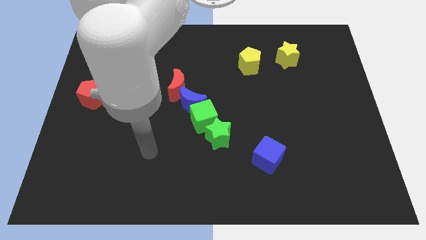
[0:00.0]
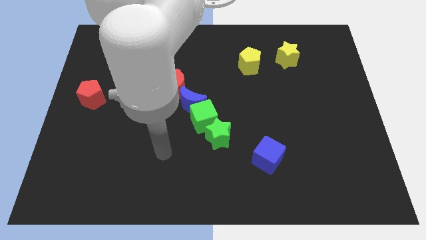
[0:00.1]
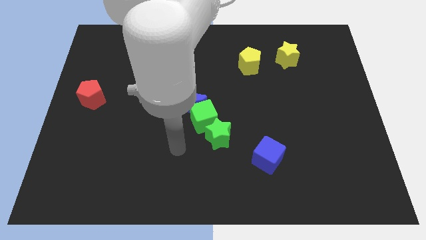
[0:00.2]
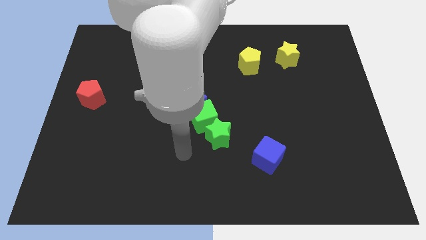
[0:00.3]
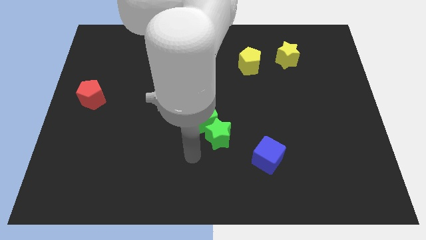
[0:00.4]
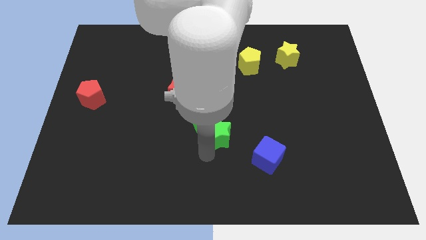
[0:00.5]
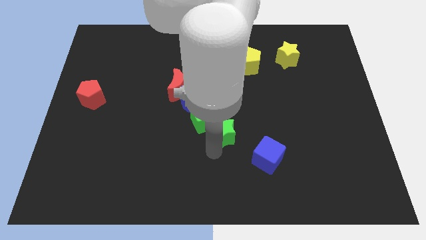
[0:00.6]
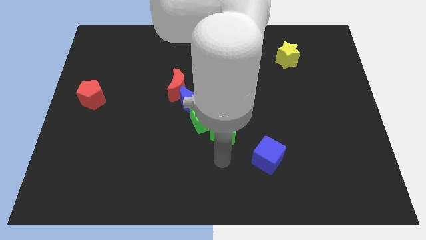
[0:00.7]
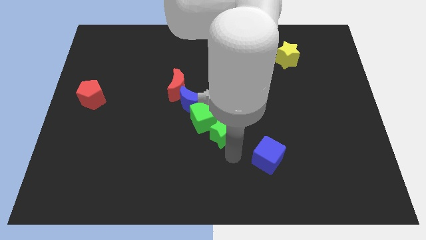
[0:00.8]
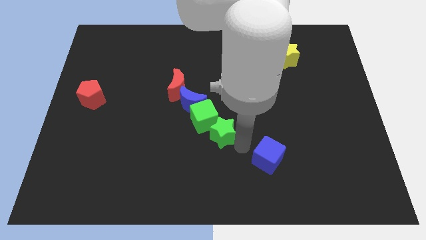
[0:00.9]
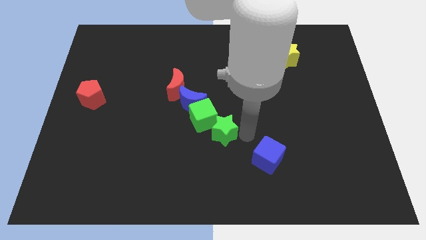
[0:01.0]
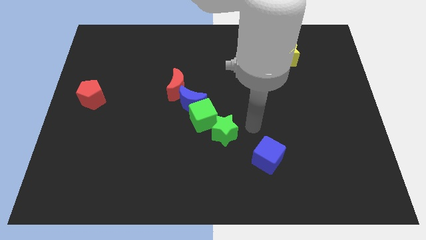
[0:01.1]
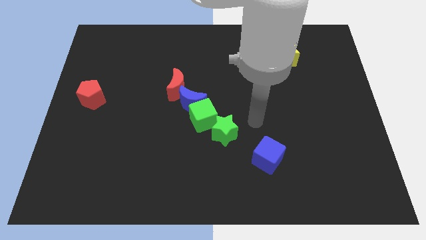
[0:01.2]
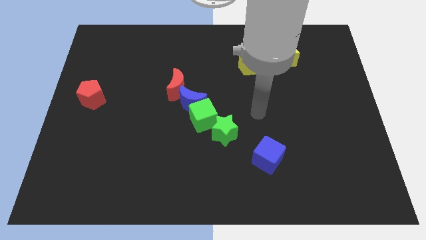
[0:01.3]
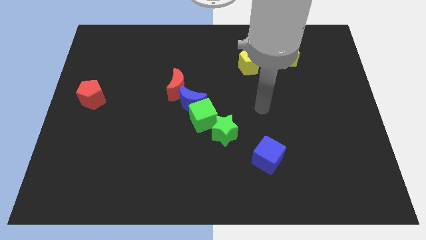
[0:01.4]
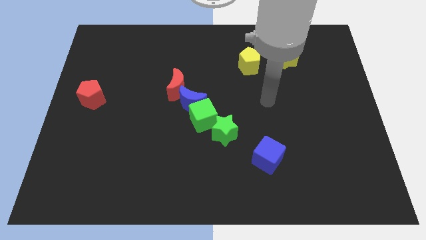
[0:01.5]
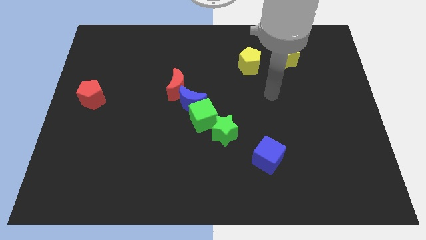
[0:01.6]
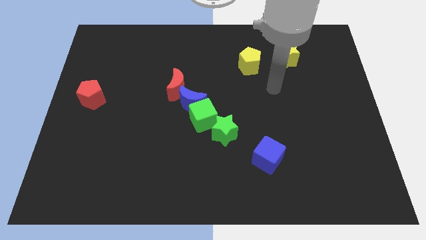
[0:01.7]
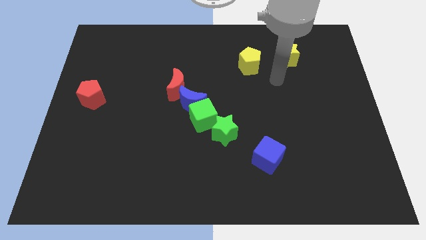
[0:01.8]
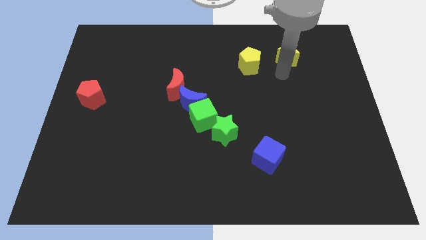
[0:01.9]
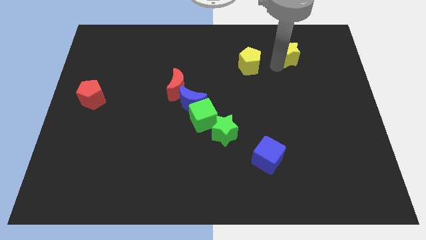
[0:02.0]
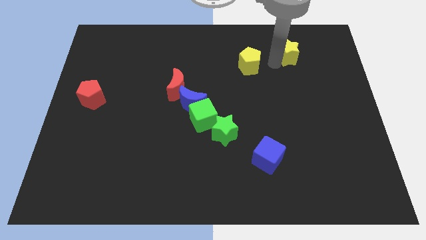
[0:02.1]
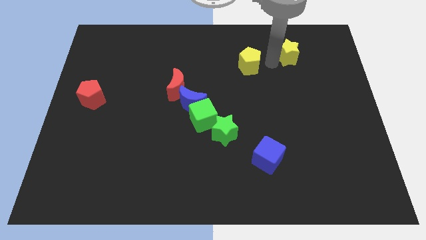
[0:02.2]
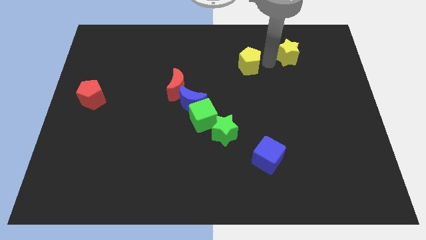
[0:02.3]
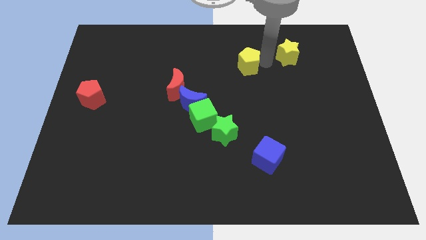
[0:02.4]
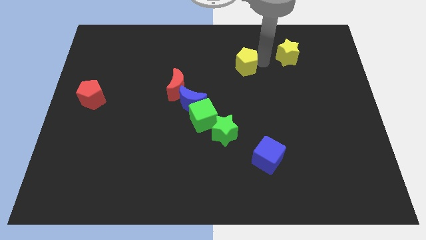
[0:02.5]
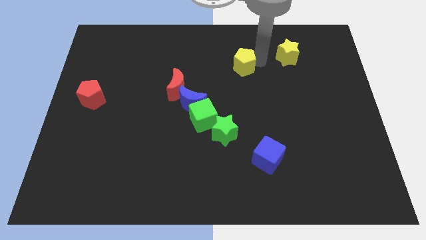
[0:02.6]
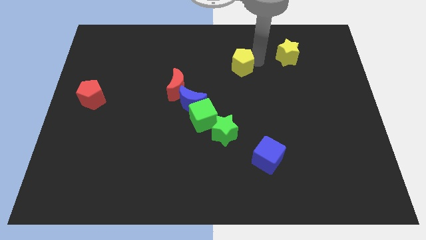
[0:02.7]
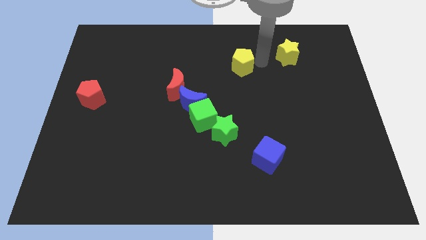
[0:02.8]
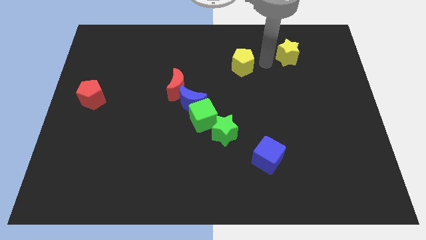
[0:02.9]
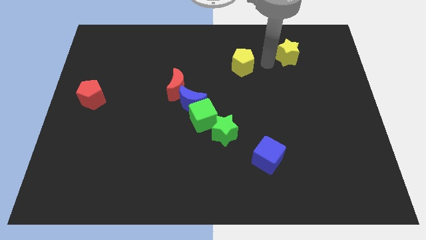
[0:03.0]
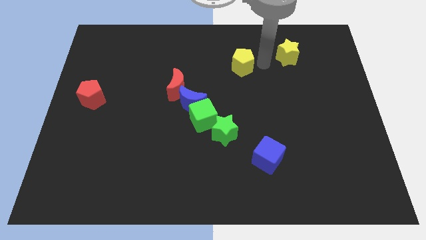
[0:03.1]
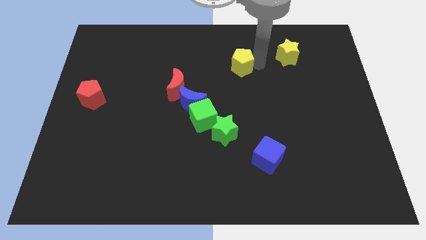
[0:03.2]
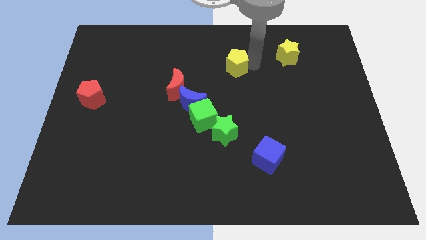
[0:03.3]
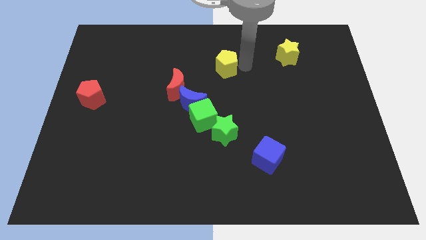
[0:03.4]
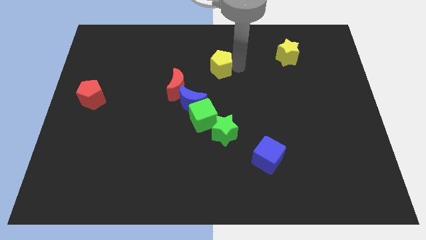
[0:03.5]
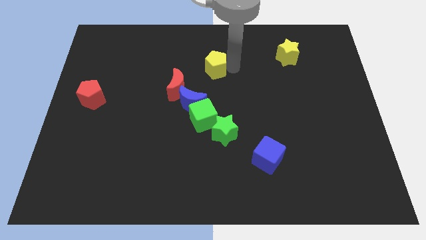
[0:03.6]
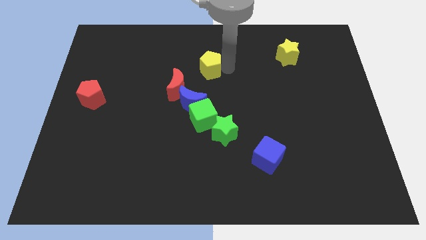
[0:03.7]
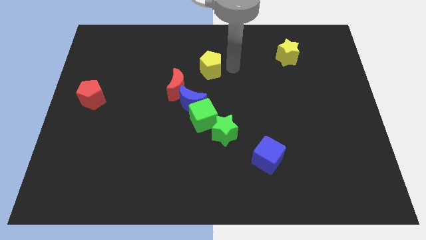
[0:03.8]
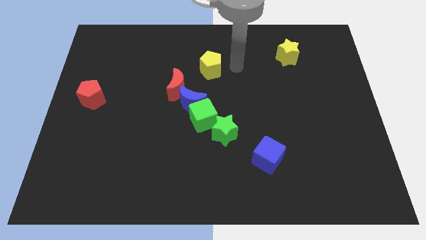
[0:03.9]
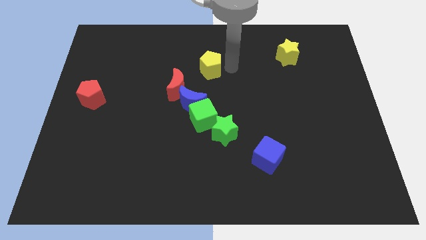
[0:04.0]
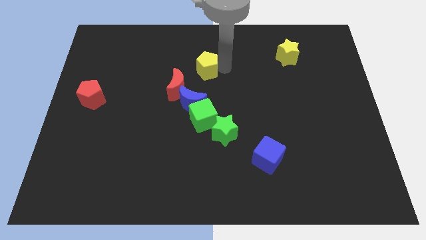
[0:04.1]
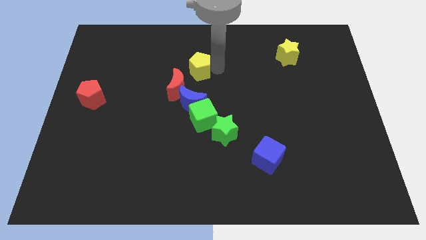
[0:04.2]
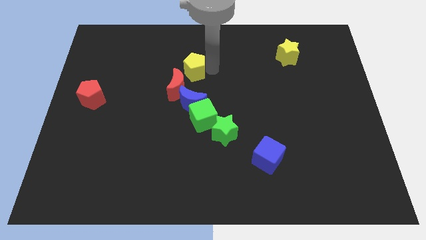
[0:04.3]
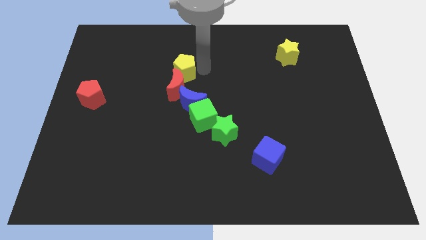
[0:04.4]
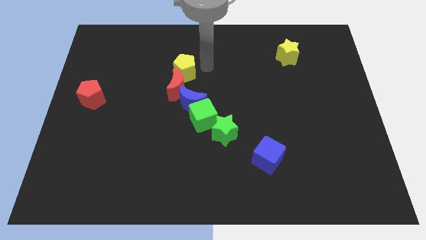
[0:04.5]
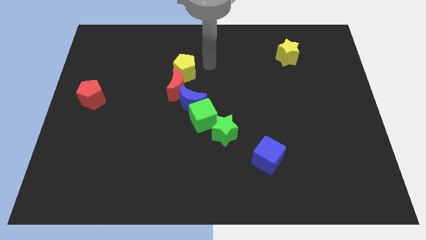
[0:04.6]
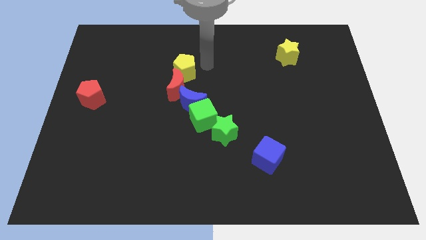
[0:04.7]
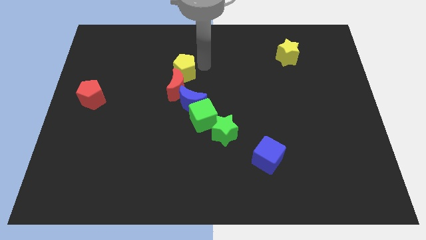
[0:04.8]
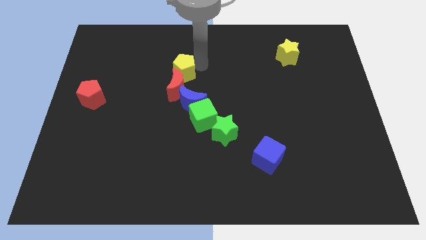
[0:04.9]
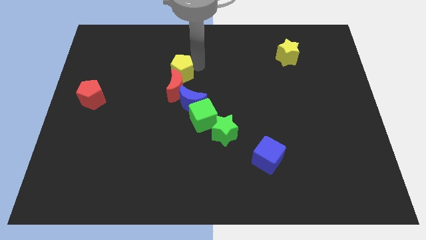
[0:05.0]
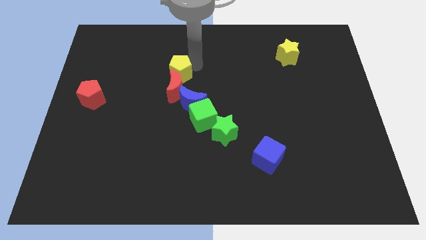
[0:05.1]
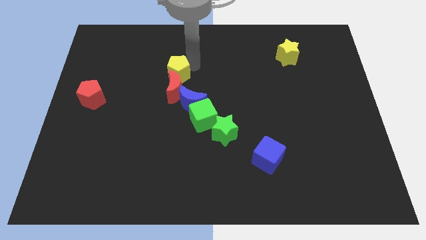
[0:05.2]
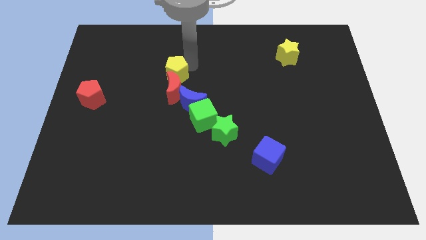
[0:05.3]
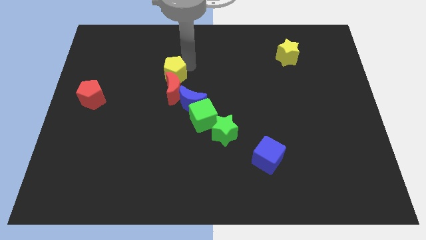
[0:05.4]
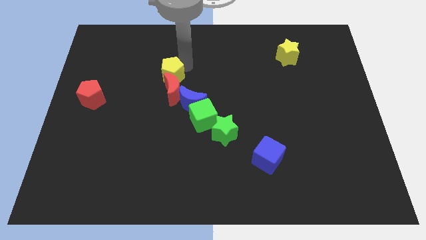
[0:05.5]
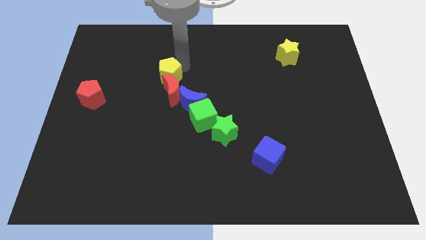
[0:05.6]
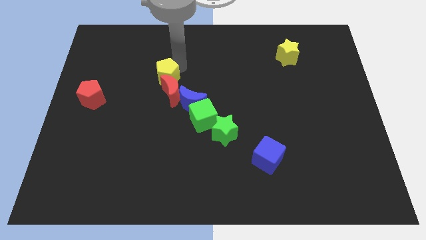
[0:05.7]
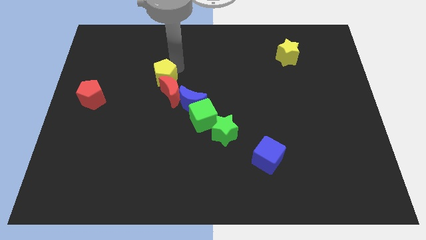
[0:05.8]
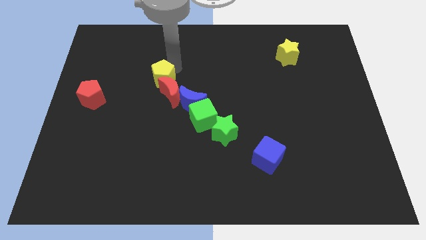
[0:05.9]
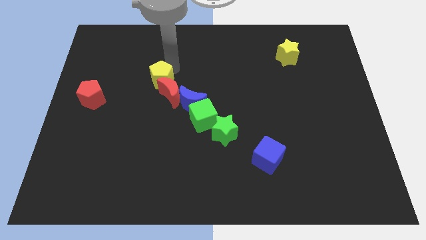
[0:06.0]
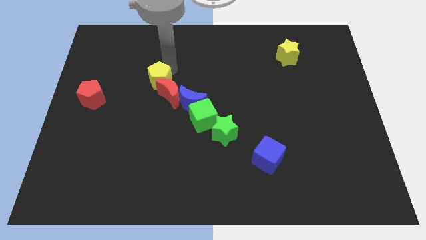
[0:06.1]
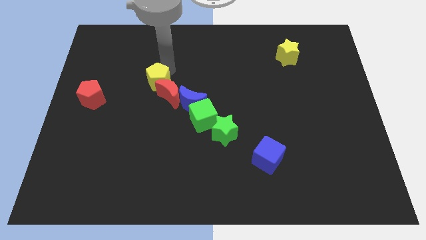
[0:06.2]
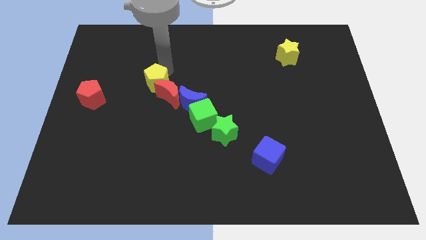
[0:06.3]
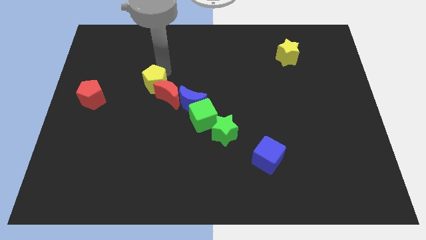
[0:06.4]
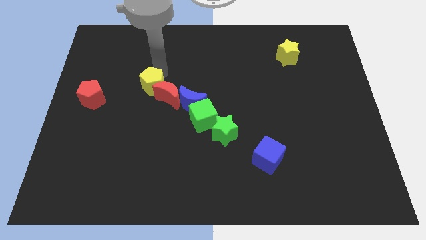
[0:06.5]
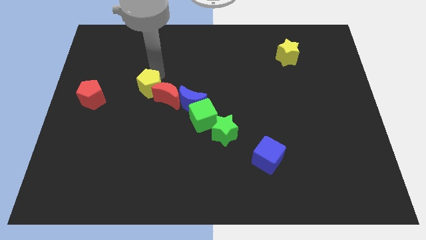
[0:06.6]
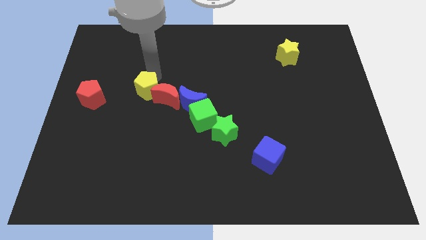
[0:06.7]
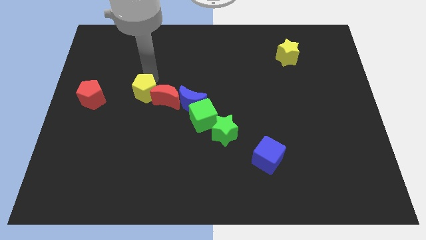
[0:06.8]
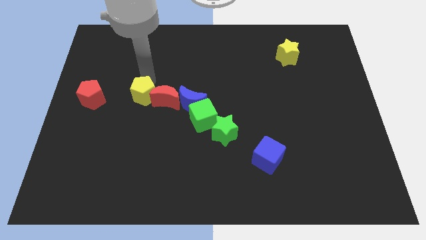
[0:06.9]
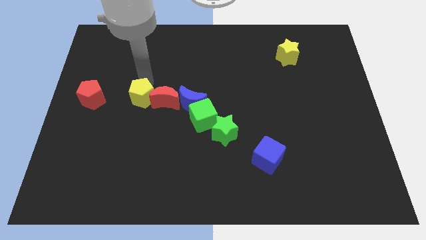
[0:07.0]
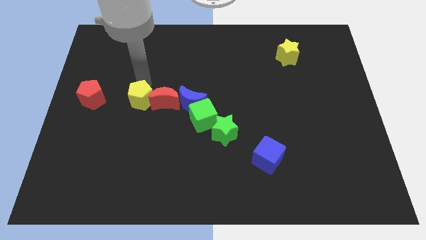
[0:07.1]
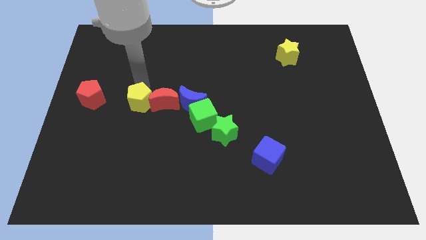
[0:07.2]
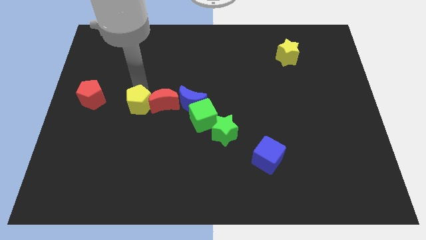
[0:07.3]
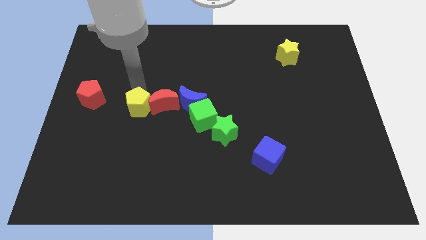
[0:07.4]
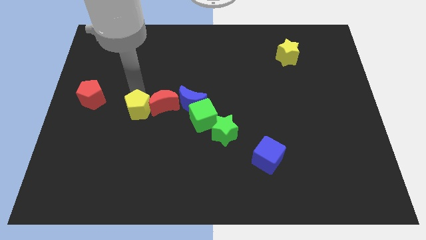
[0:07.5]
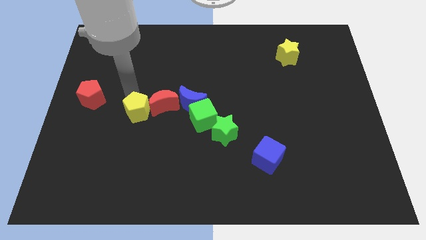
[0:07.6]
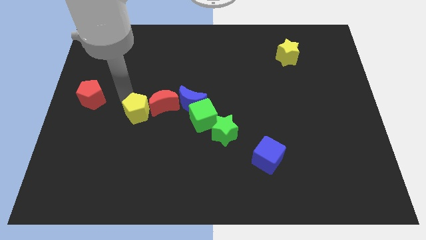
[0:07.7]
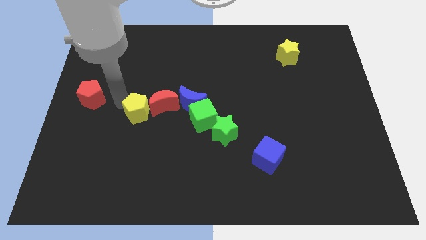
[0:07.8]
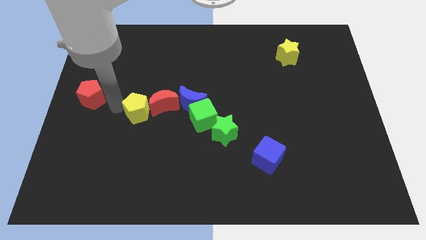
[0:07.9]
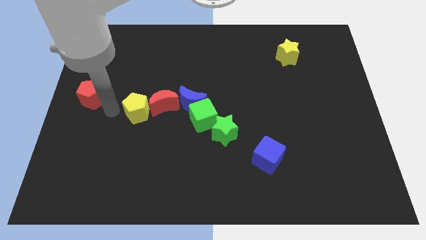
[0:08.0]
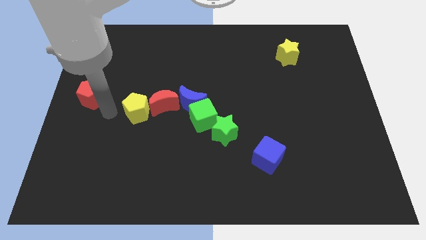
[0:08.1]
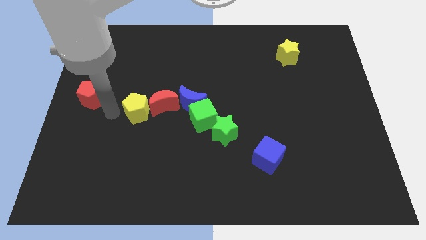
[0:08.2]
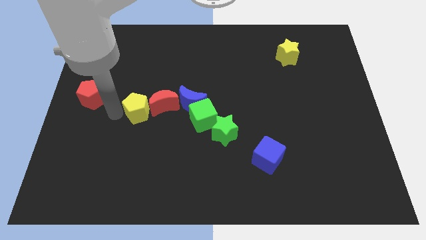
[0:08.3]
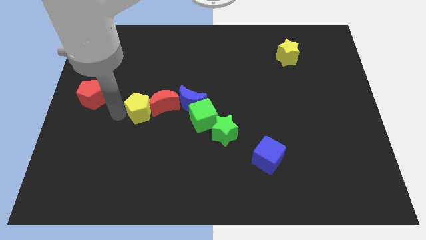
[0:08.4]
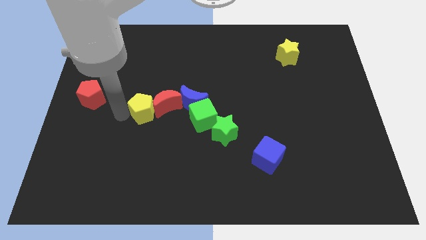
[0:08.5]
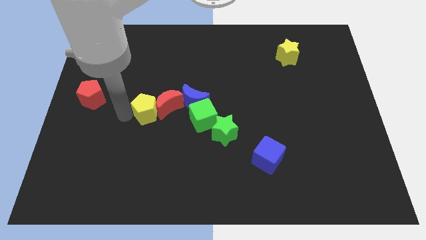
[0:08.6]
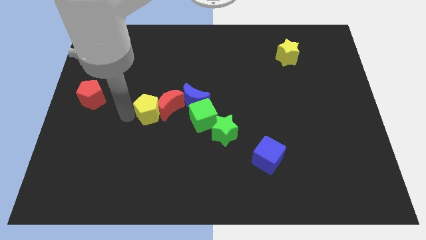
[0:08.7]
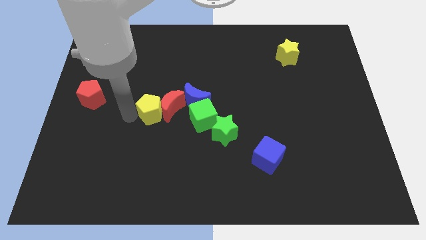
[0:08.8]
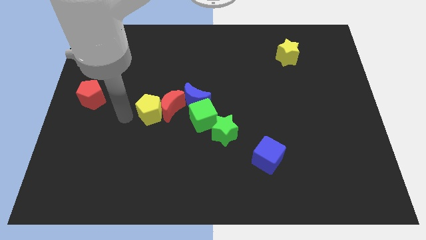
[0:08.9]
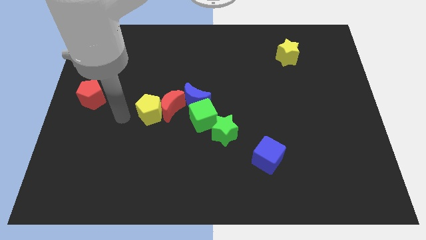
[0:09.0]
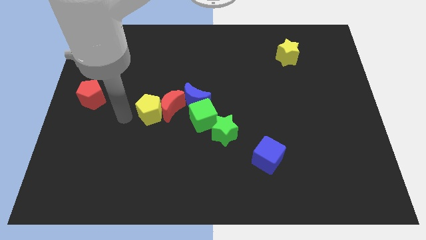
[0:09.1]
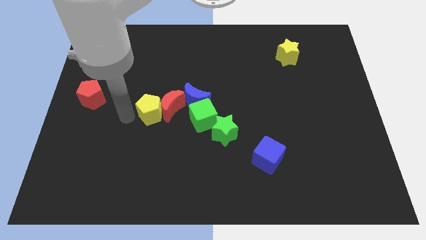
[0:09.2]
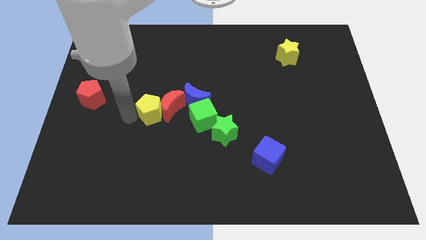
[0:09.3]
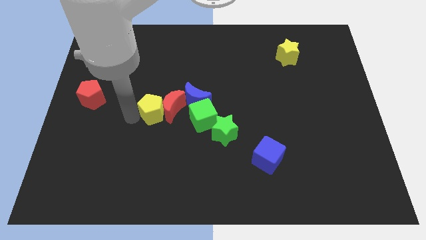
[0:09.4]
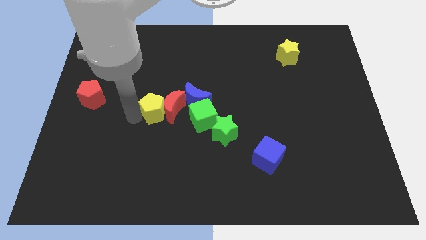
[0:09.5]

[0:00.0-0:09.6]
slide the yellow pentagon to the bottom left side of the blue moon
